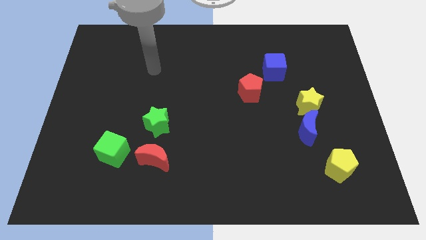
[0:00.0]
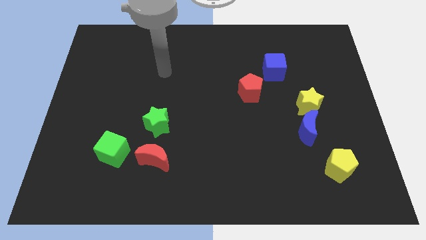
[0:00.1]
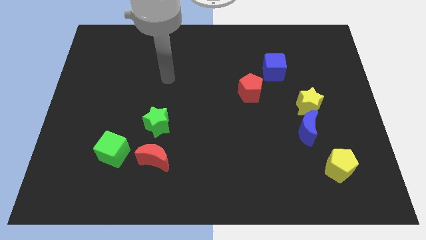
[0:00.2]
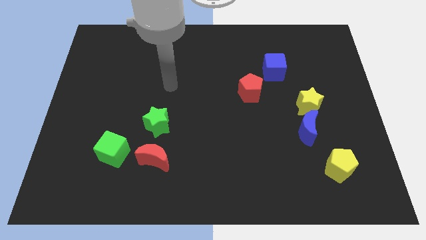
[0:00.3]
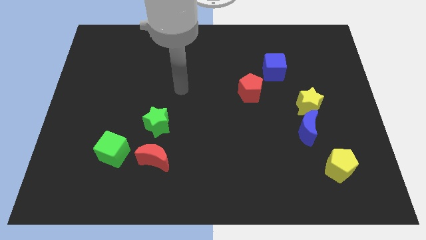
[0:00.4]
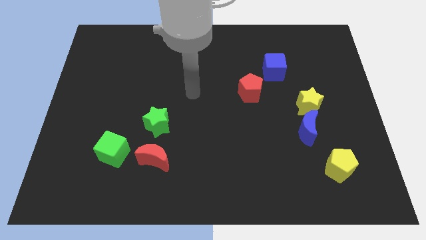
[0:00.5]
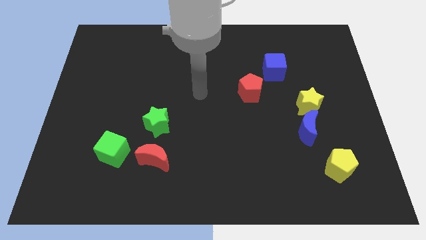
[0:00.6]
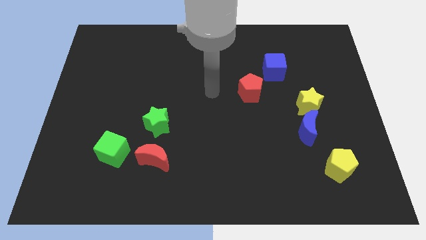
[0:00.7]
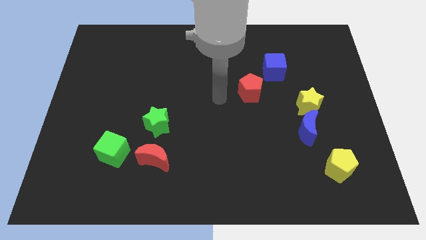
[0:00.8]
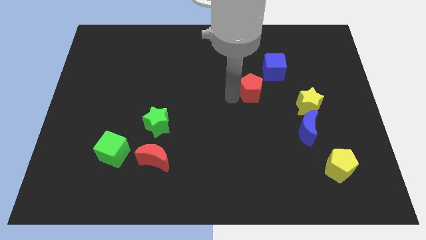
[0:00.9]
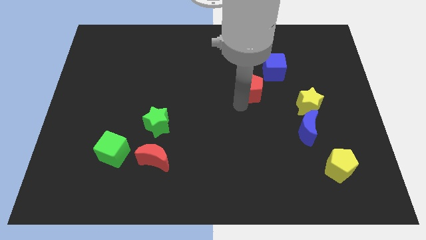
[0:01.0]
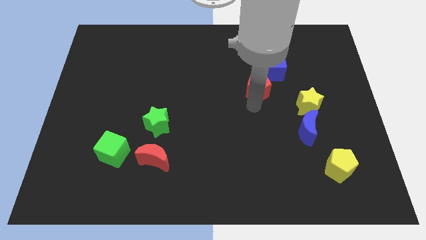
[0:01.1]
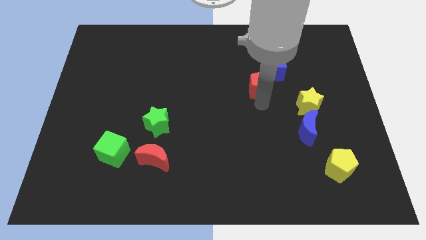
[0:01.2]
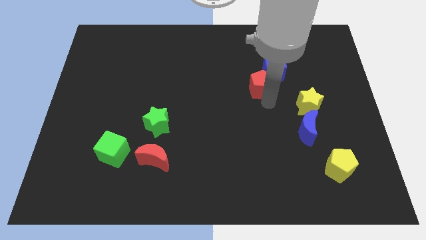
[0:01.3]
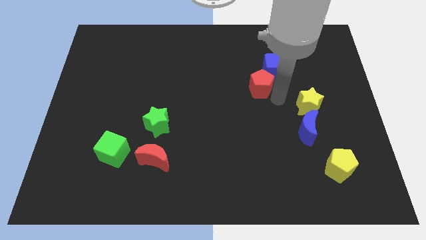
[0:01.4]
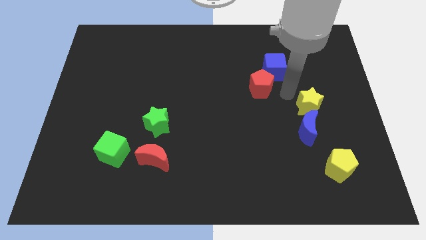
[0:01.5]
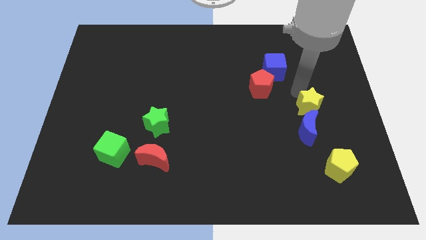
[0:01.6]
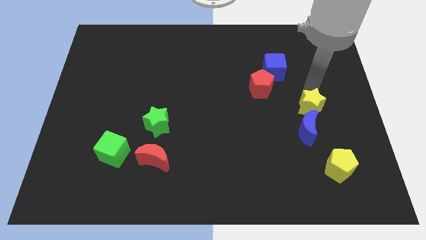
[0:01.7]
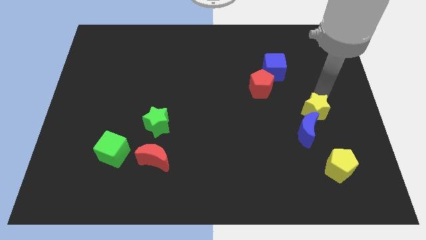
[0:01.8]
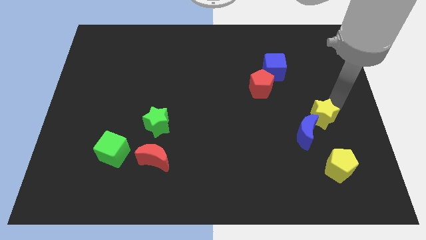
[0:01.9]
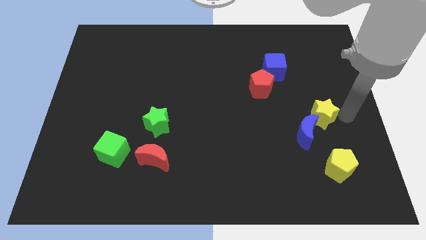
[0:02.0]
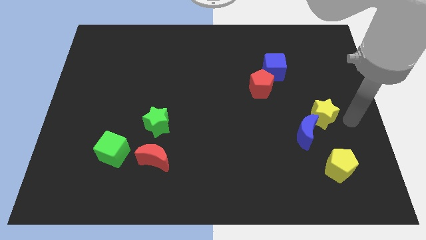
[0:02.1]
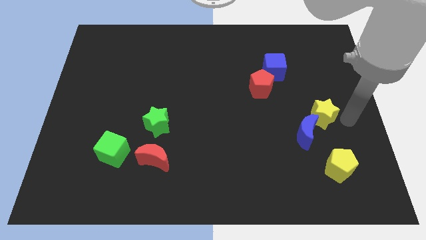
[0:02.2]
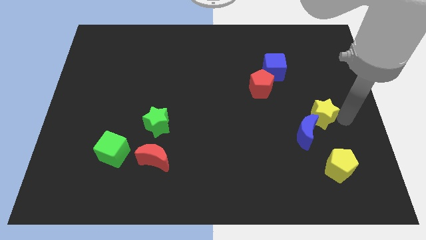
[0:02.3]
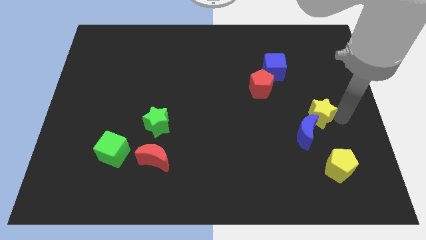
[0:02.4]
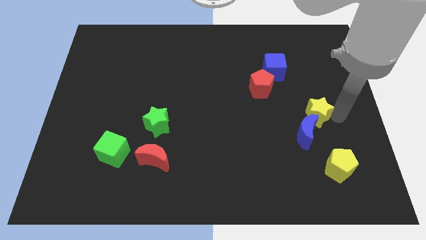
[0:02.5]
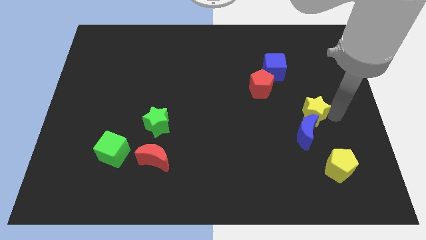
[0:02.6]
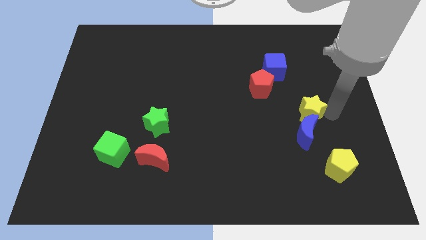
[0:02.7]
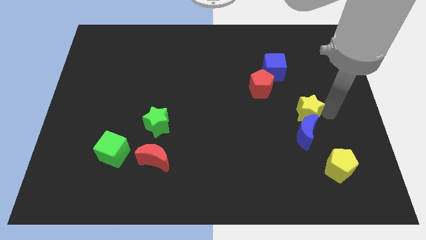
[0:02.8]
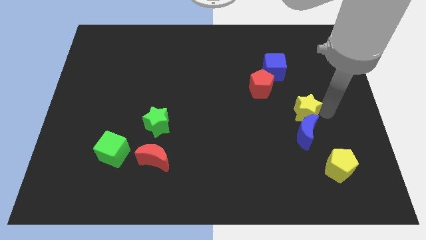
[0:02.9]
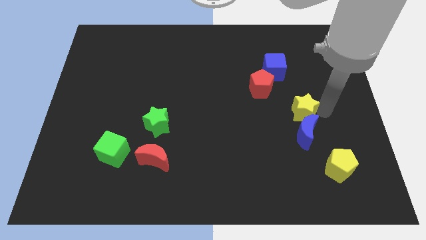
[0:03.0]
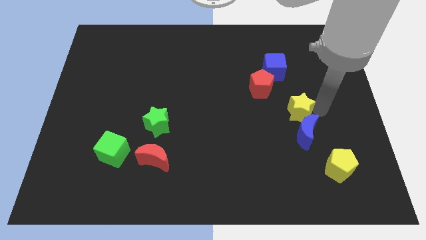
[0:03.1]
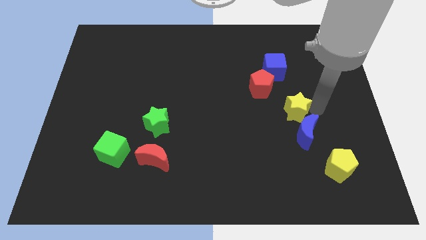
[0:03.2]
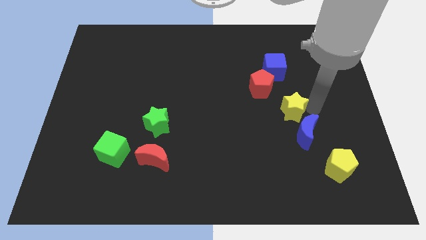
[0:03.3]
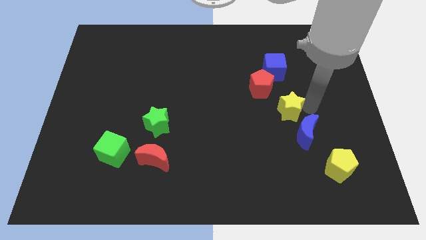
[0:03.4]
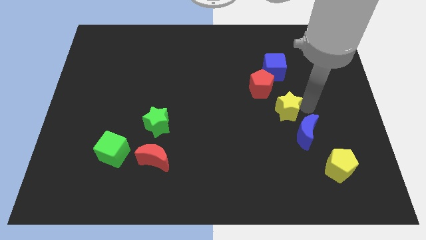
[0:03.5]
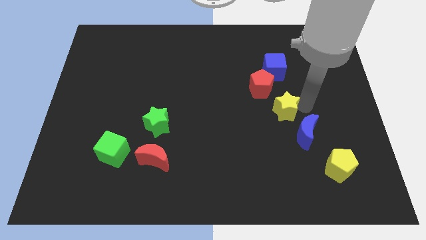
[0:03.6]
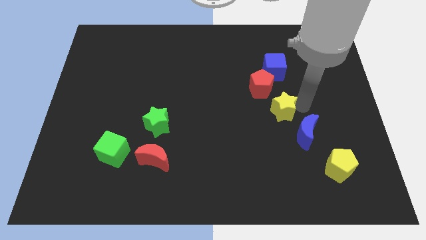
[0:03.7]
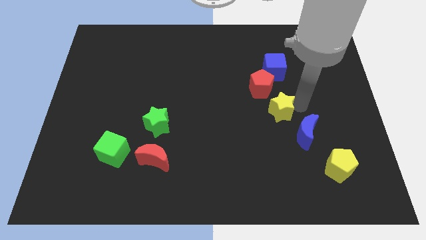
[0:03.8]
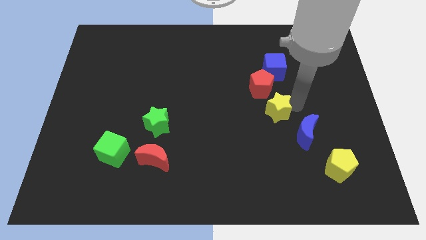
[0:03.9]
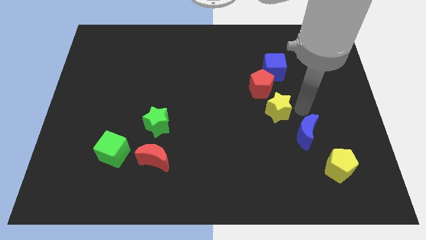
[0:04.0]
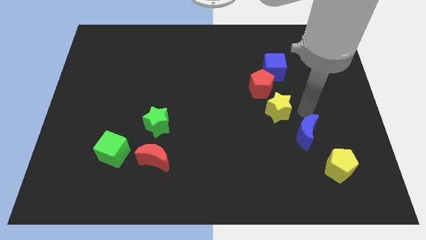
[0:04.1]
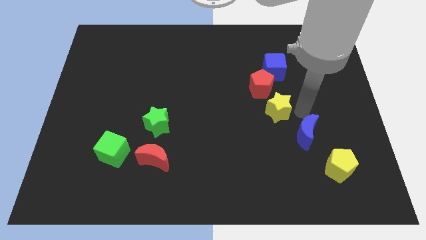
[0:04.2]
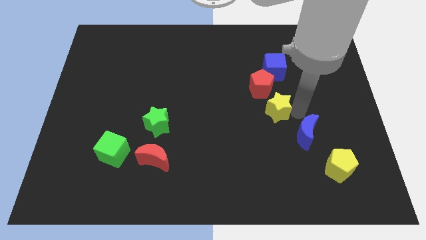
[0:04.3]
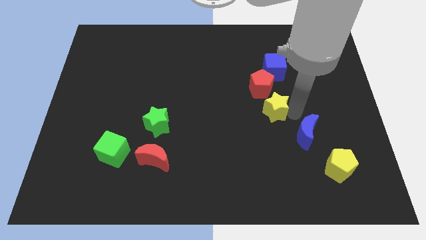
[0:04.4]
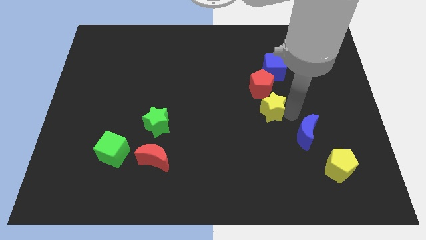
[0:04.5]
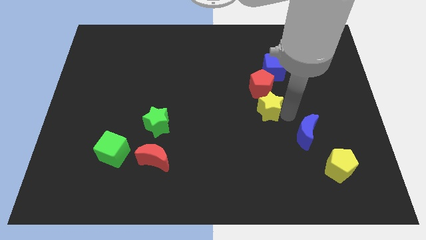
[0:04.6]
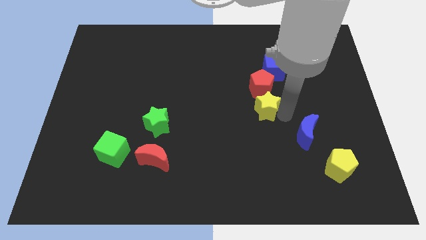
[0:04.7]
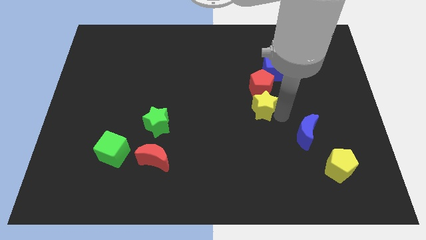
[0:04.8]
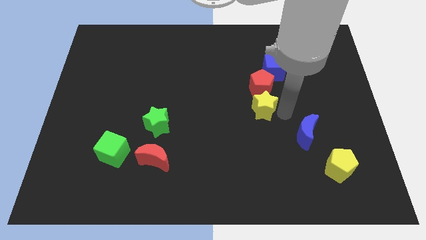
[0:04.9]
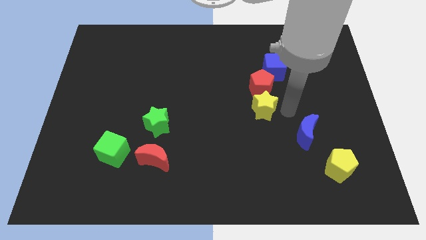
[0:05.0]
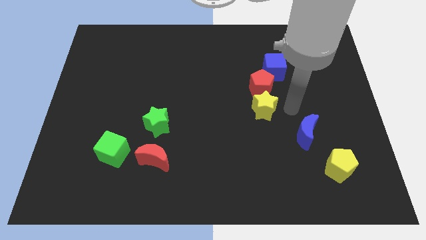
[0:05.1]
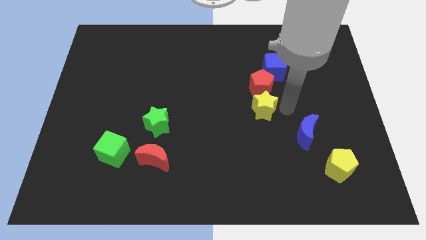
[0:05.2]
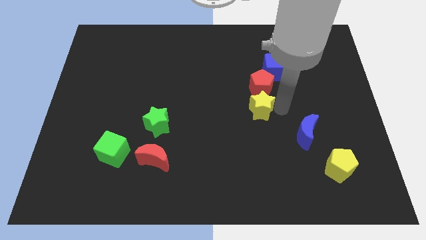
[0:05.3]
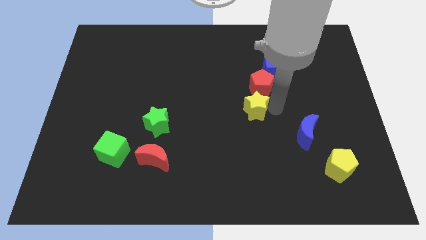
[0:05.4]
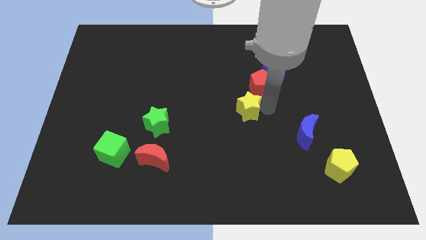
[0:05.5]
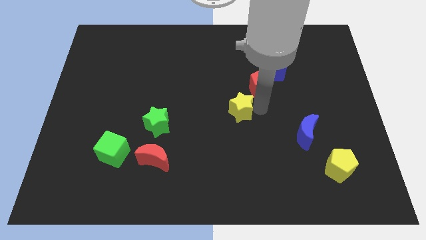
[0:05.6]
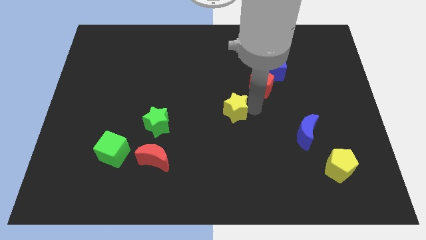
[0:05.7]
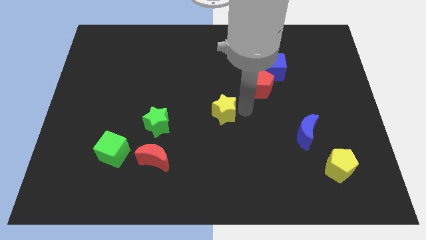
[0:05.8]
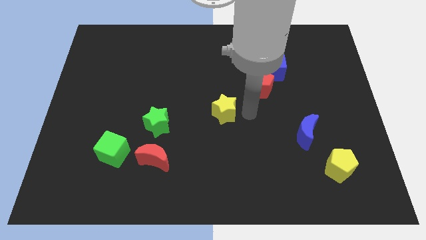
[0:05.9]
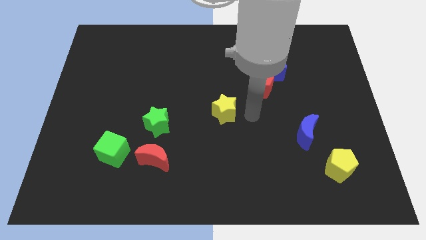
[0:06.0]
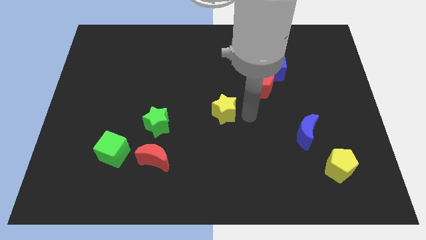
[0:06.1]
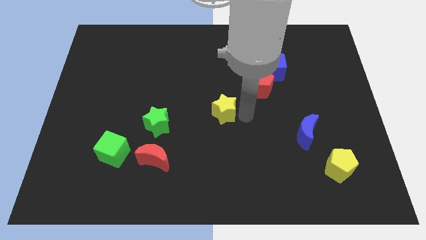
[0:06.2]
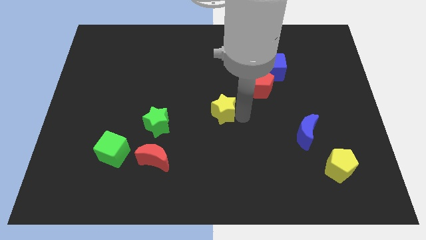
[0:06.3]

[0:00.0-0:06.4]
slide the yellow star left

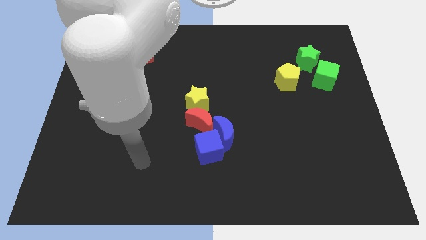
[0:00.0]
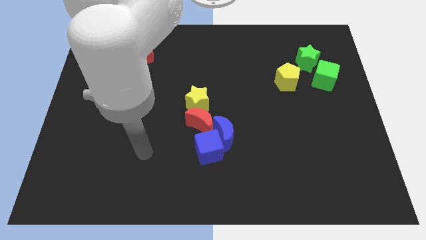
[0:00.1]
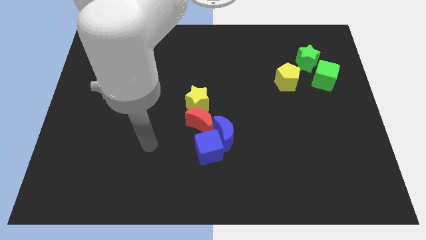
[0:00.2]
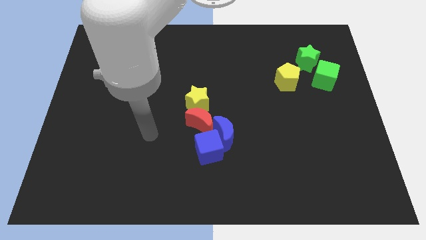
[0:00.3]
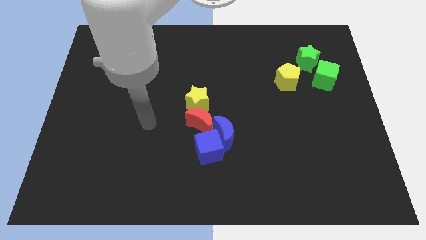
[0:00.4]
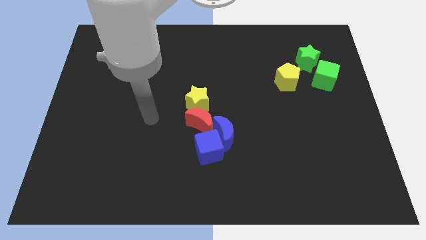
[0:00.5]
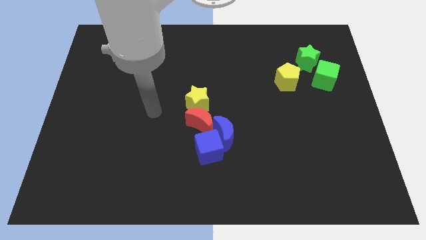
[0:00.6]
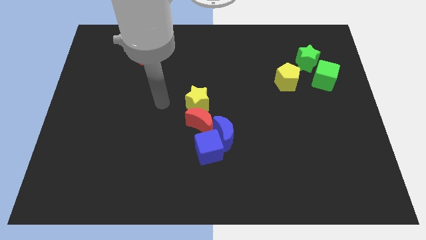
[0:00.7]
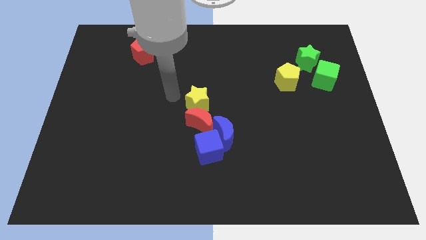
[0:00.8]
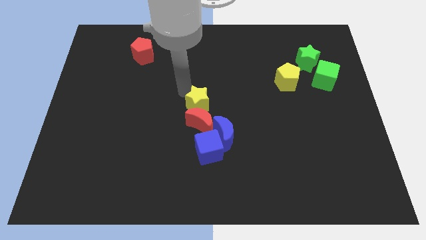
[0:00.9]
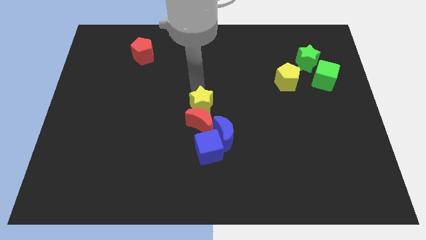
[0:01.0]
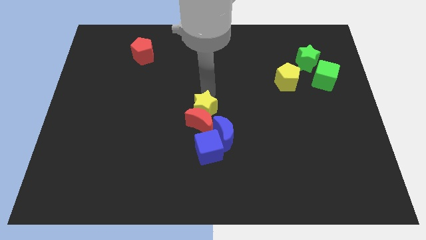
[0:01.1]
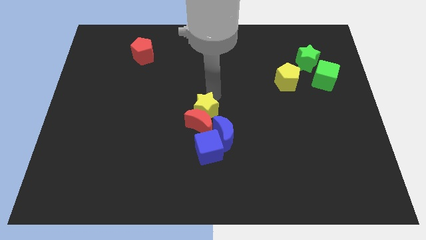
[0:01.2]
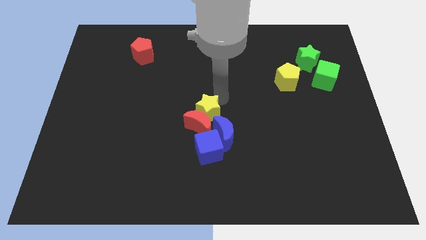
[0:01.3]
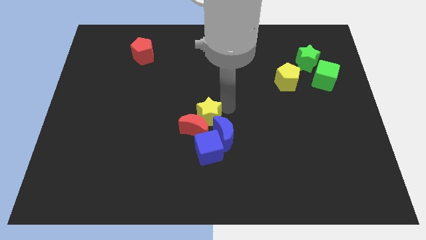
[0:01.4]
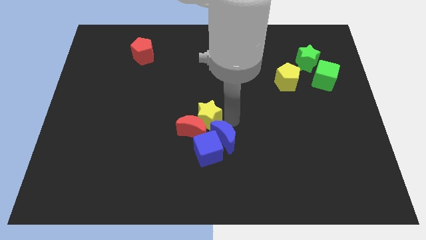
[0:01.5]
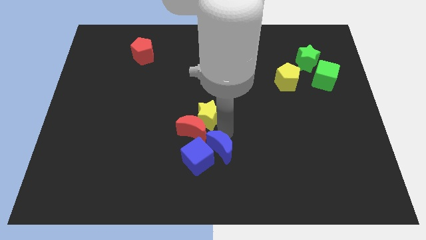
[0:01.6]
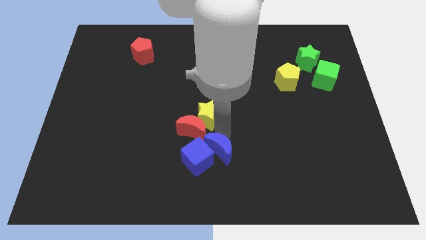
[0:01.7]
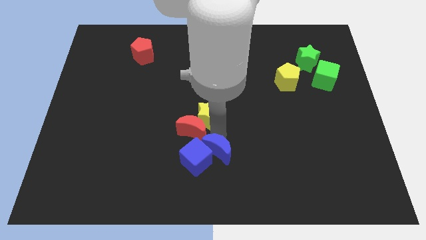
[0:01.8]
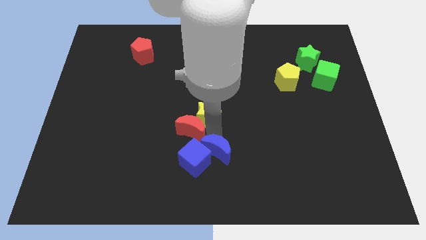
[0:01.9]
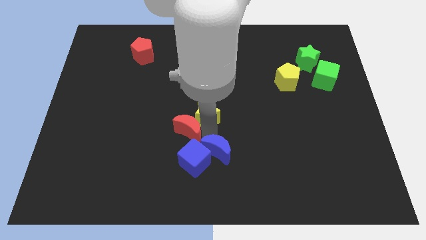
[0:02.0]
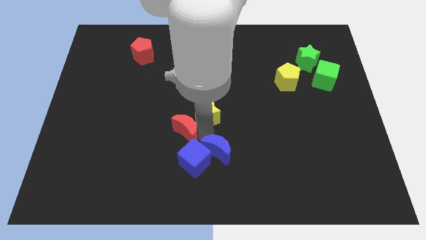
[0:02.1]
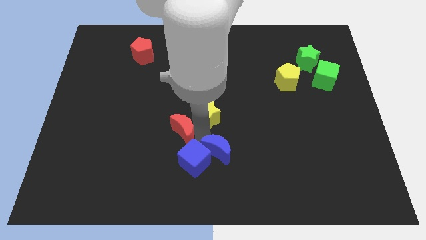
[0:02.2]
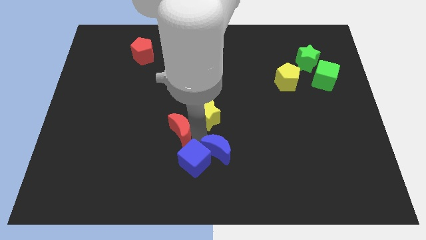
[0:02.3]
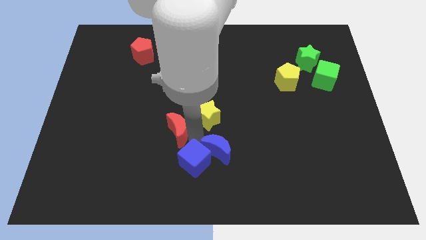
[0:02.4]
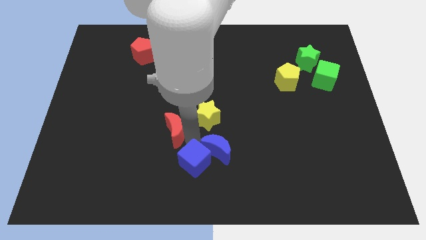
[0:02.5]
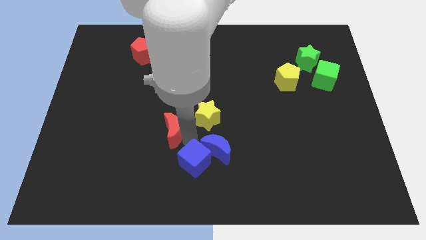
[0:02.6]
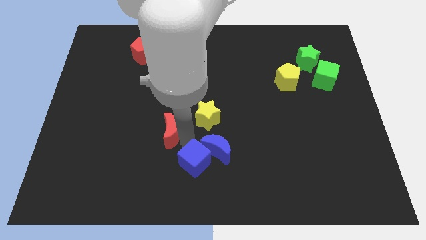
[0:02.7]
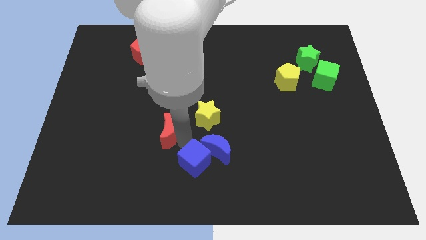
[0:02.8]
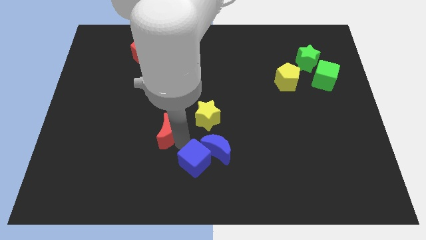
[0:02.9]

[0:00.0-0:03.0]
move the red moon a little to the left
